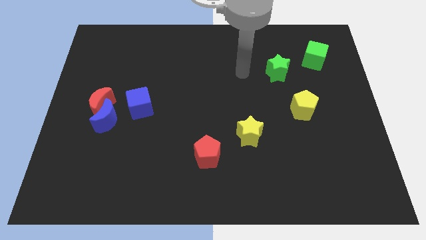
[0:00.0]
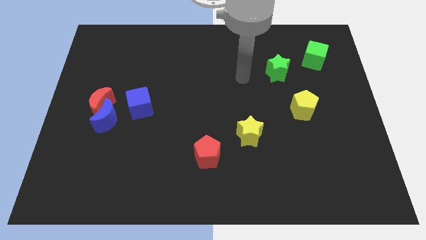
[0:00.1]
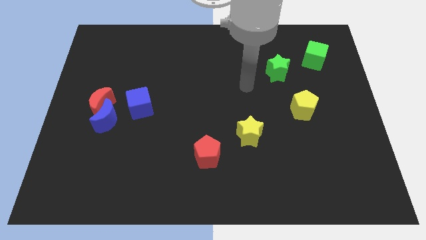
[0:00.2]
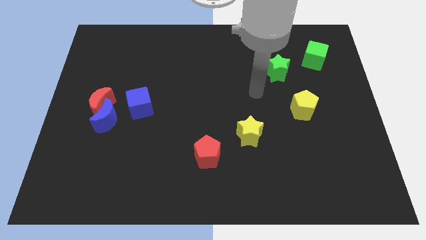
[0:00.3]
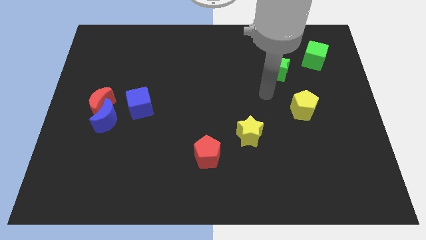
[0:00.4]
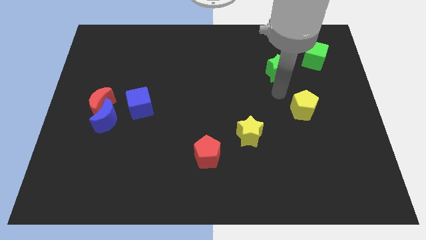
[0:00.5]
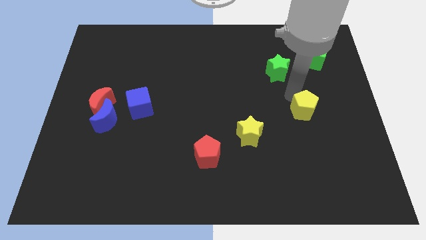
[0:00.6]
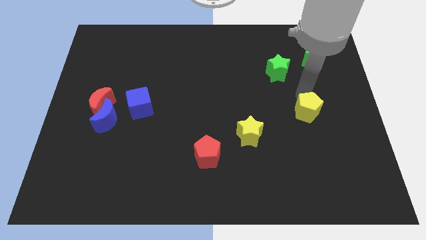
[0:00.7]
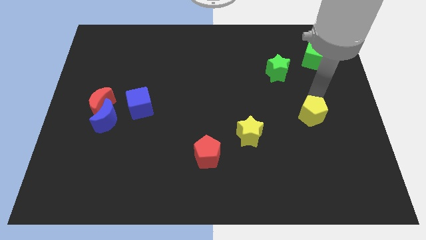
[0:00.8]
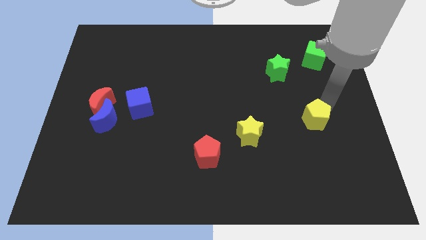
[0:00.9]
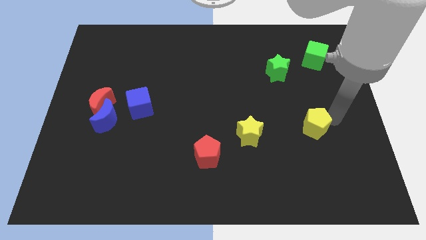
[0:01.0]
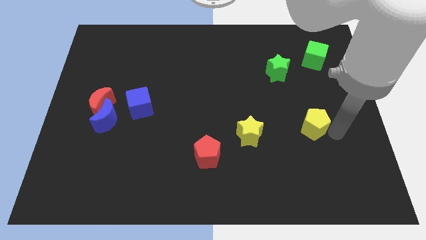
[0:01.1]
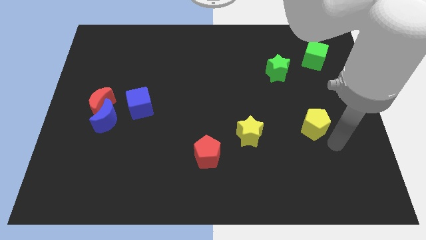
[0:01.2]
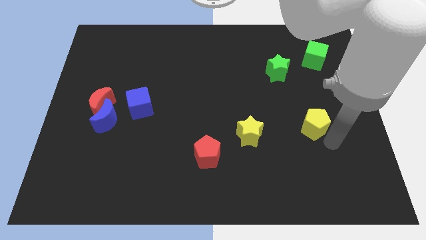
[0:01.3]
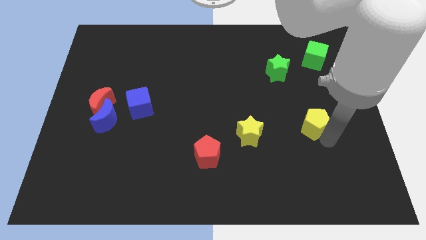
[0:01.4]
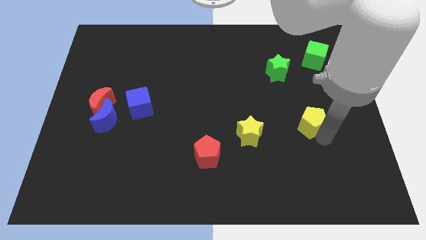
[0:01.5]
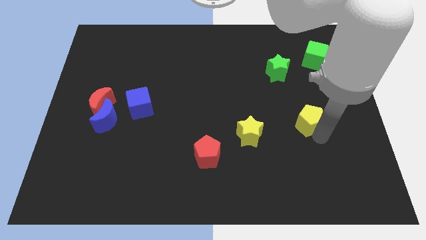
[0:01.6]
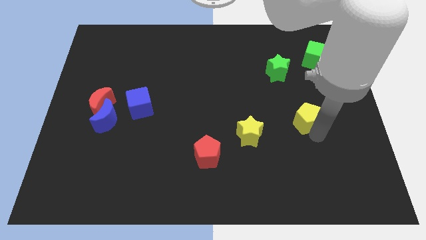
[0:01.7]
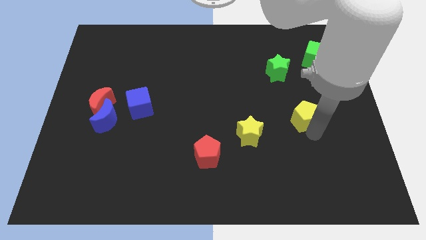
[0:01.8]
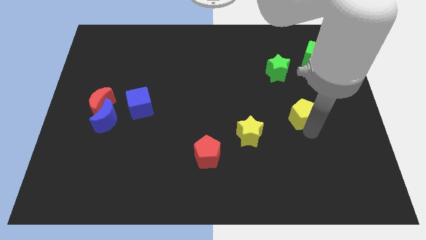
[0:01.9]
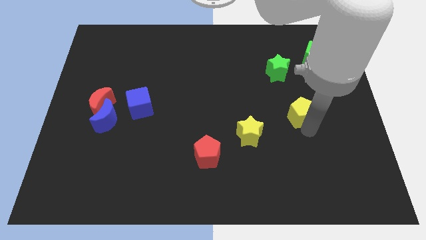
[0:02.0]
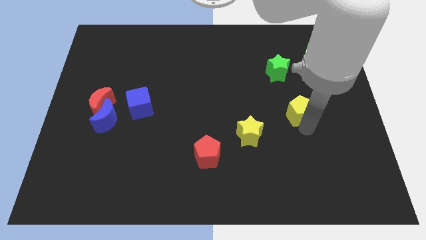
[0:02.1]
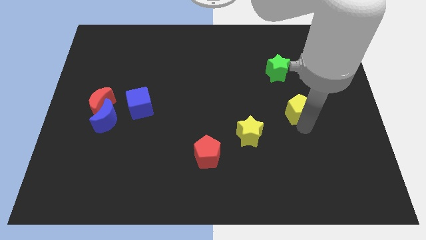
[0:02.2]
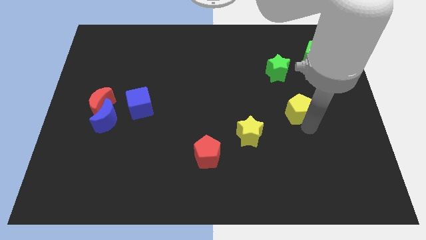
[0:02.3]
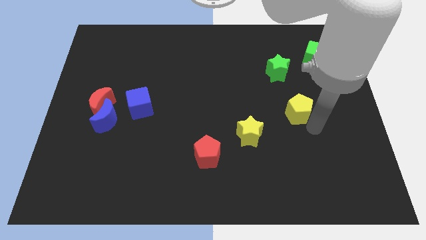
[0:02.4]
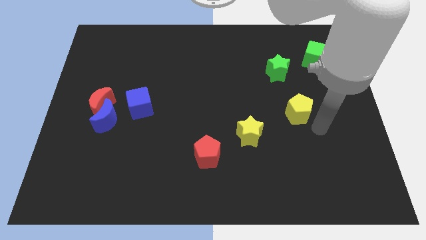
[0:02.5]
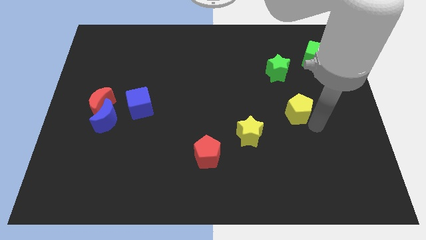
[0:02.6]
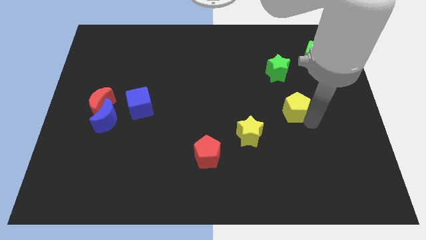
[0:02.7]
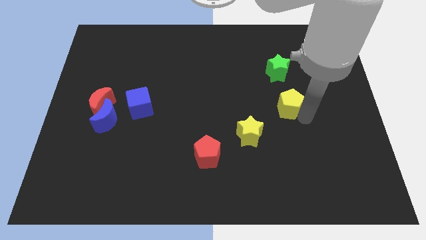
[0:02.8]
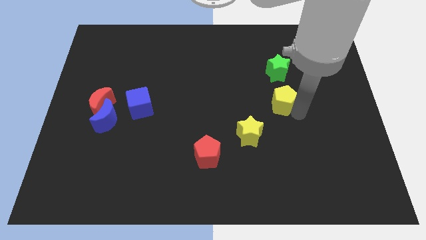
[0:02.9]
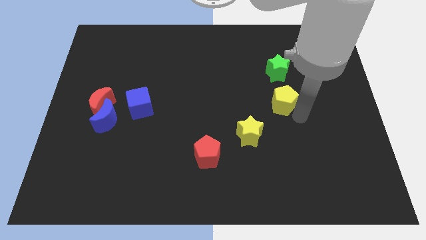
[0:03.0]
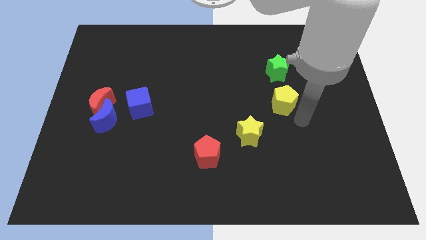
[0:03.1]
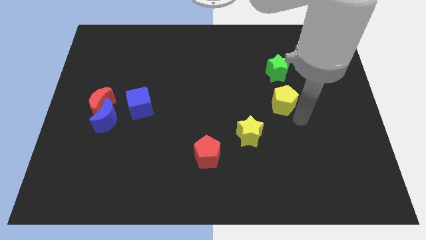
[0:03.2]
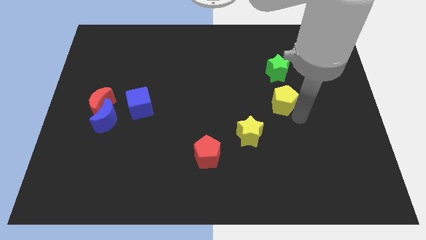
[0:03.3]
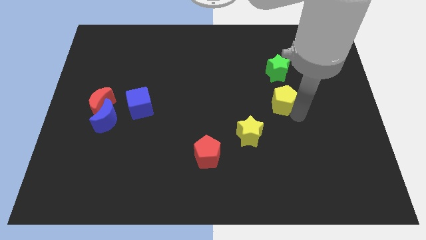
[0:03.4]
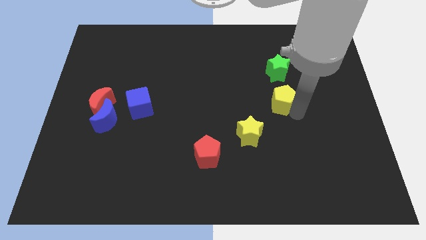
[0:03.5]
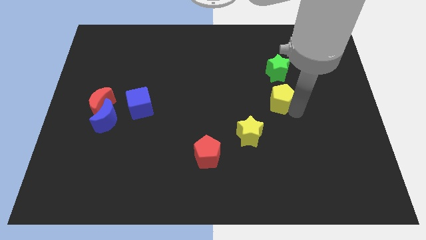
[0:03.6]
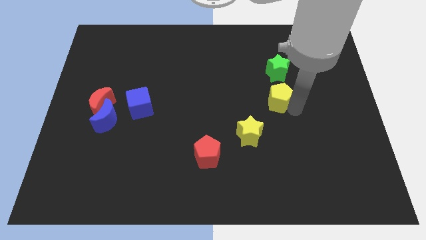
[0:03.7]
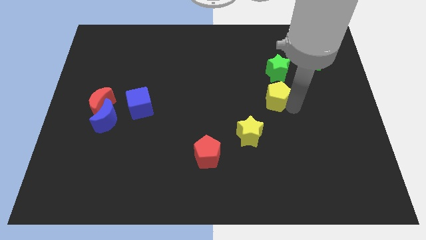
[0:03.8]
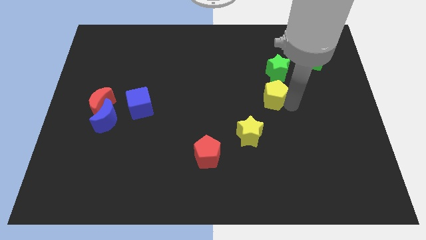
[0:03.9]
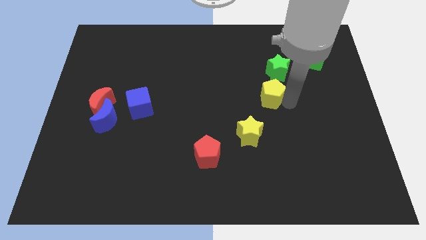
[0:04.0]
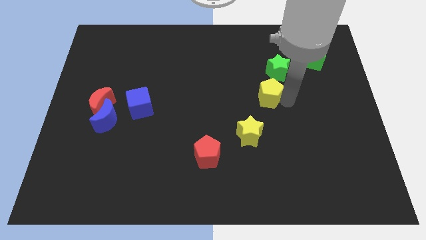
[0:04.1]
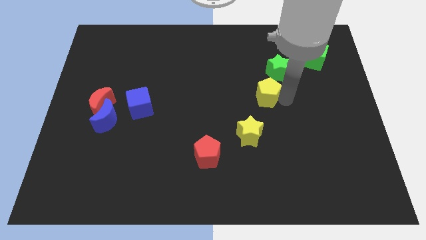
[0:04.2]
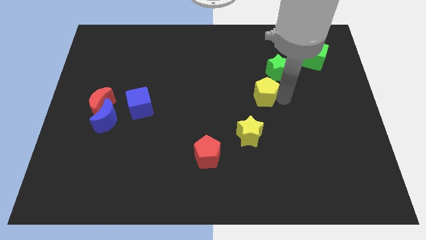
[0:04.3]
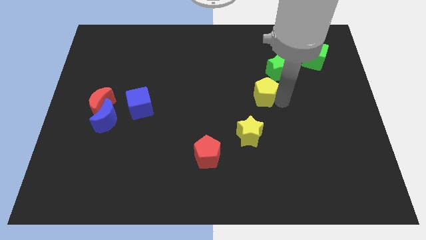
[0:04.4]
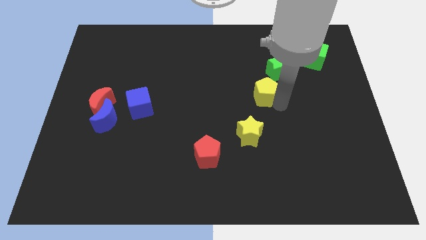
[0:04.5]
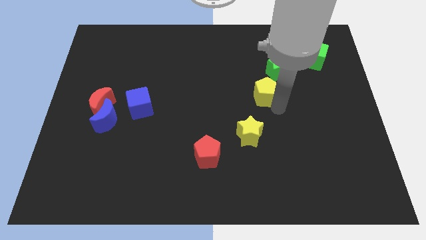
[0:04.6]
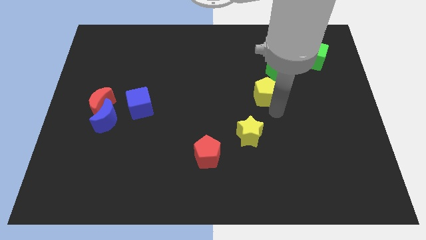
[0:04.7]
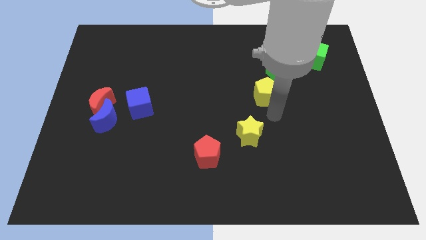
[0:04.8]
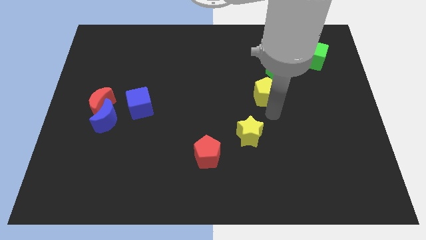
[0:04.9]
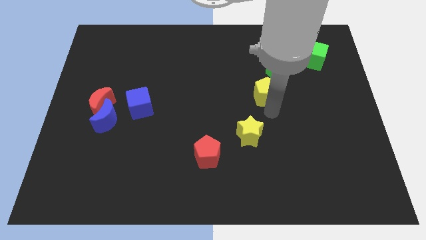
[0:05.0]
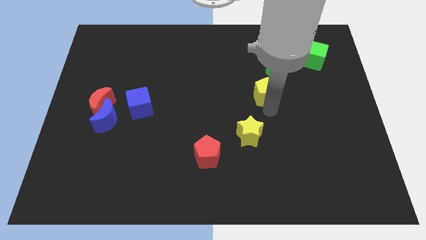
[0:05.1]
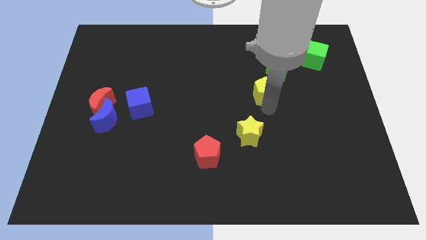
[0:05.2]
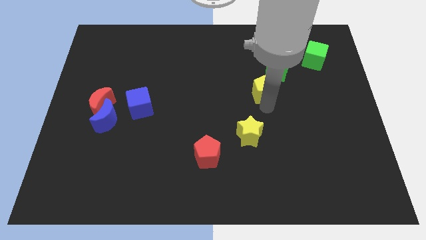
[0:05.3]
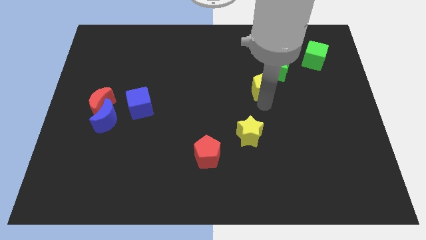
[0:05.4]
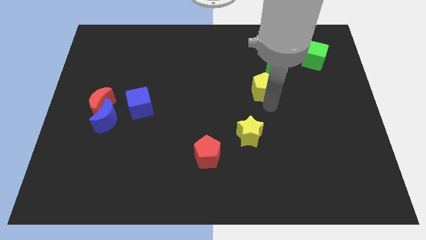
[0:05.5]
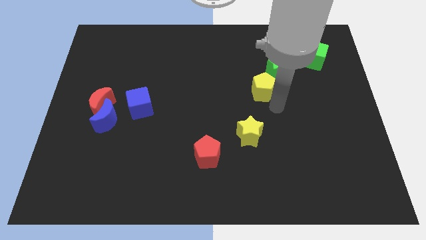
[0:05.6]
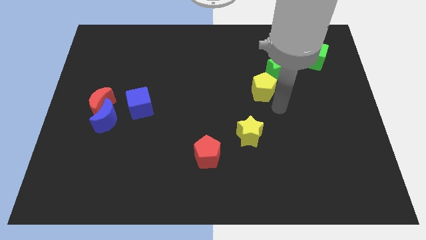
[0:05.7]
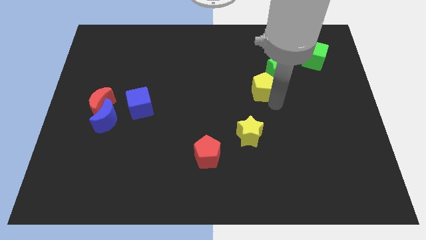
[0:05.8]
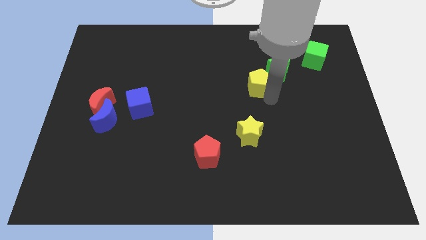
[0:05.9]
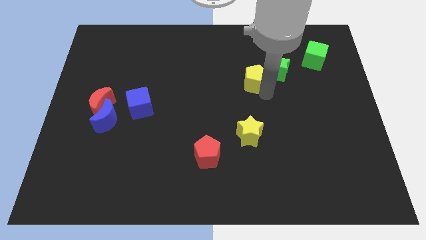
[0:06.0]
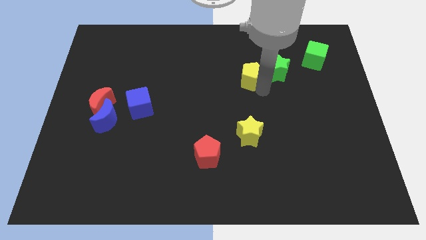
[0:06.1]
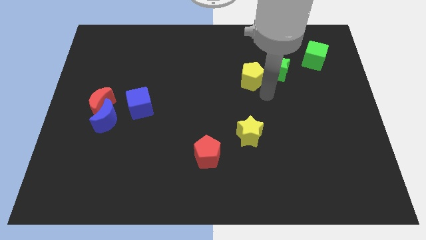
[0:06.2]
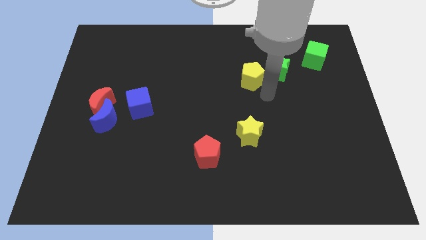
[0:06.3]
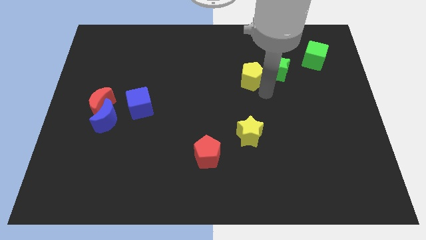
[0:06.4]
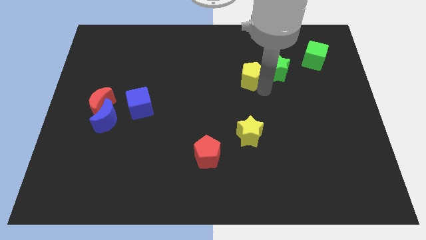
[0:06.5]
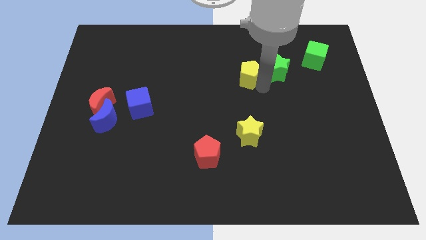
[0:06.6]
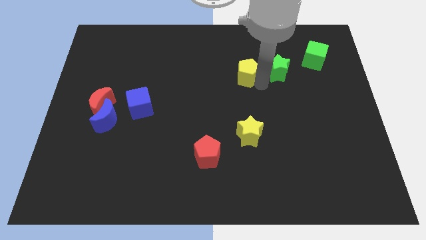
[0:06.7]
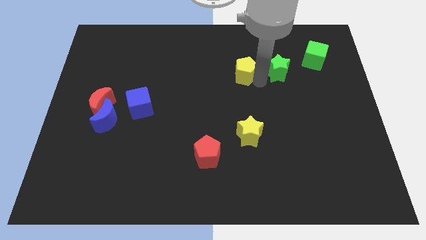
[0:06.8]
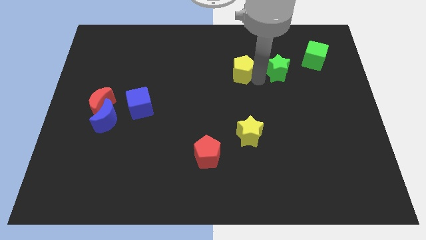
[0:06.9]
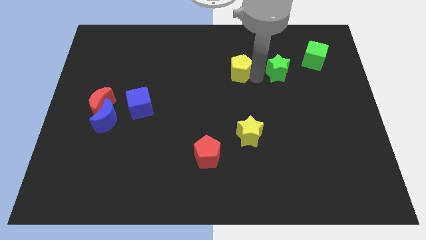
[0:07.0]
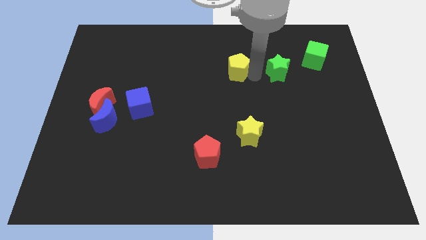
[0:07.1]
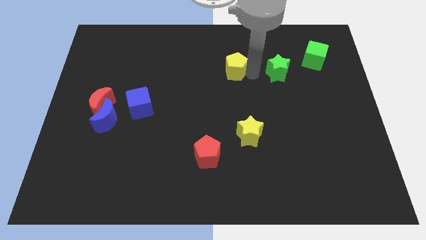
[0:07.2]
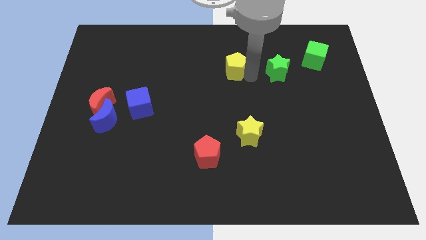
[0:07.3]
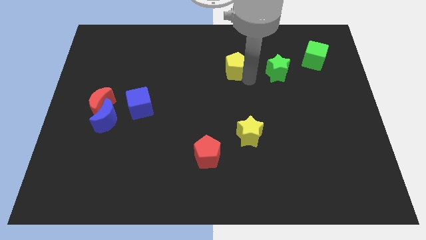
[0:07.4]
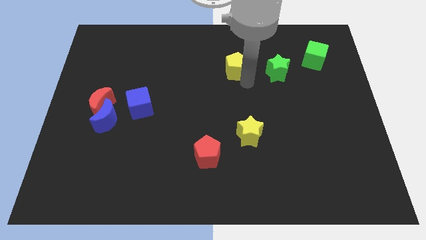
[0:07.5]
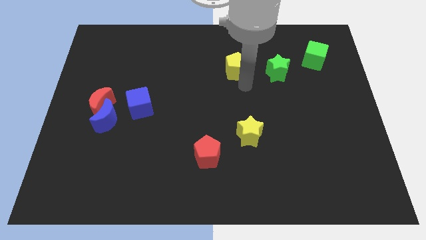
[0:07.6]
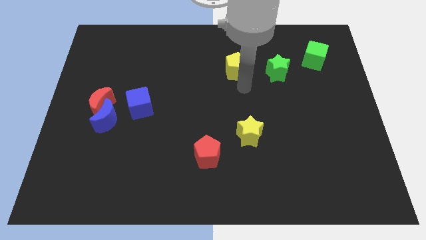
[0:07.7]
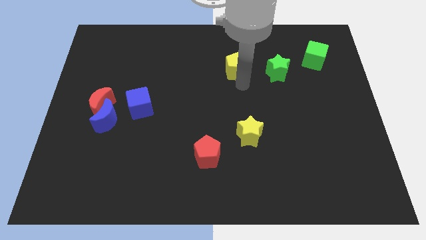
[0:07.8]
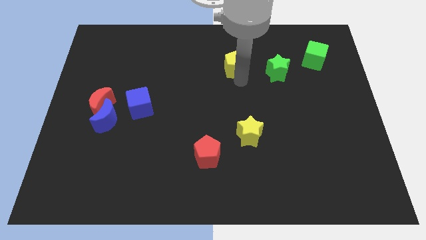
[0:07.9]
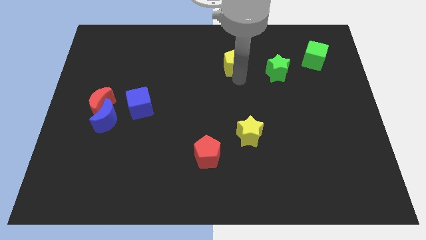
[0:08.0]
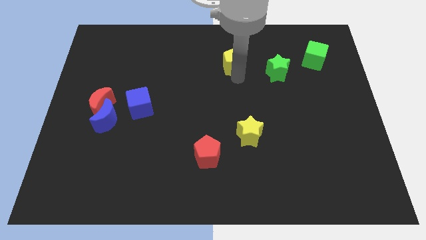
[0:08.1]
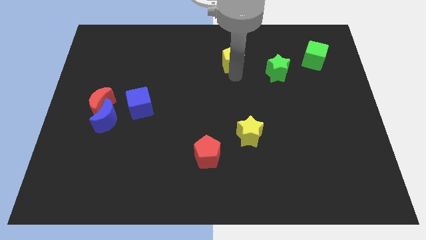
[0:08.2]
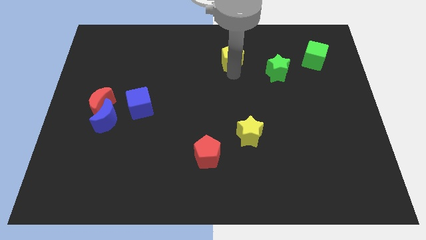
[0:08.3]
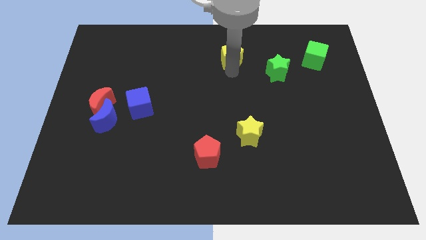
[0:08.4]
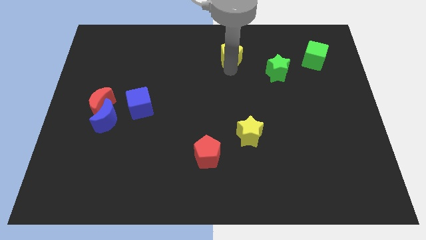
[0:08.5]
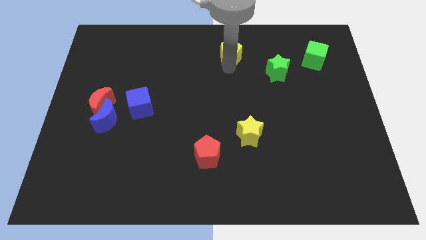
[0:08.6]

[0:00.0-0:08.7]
slide the yellow pentagon to the top side
